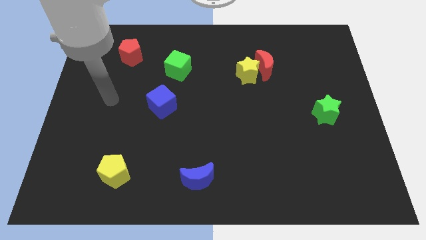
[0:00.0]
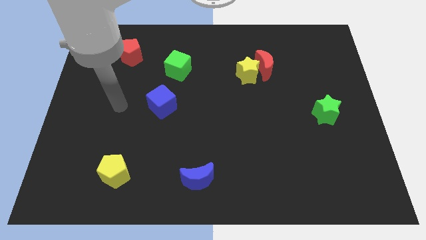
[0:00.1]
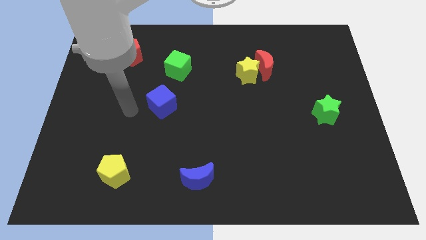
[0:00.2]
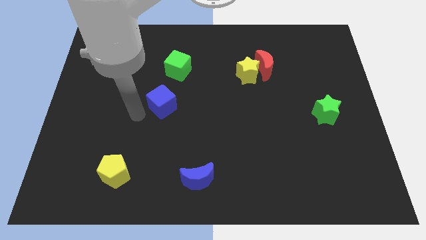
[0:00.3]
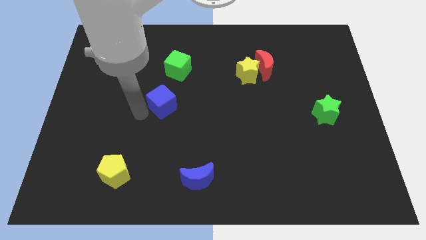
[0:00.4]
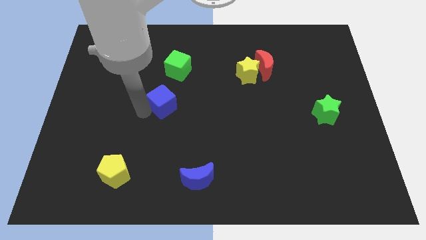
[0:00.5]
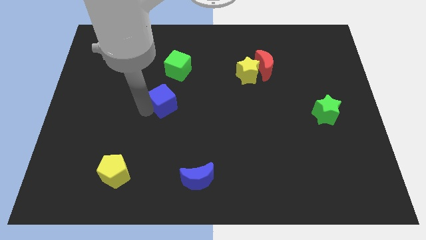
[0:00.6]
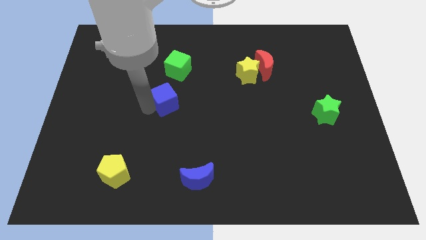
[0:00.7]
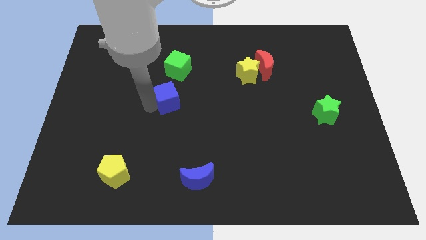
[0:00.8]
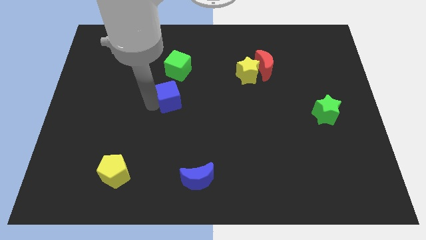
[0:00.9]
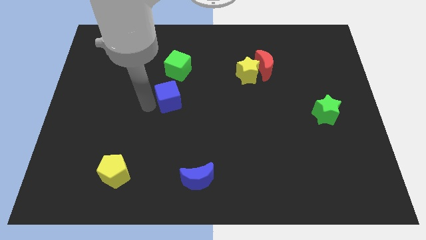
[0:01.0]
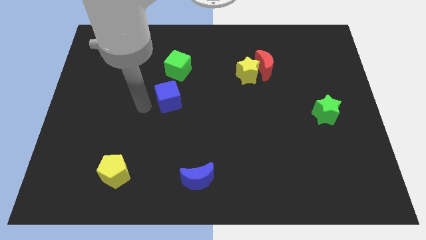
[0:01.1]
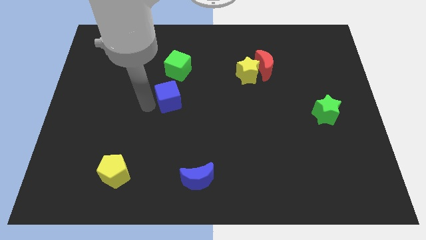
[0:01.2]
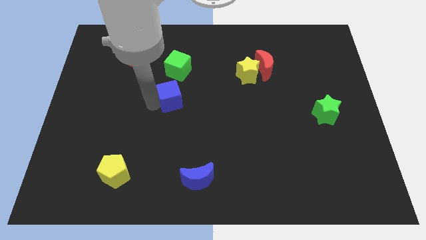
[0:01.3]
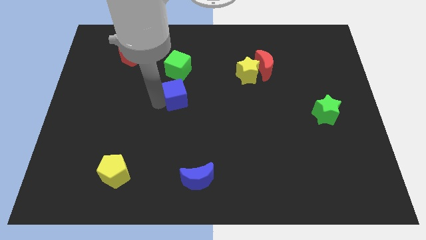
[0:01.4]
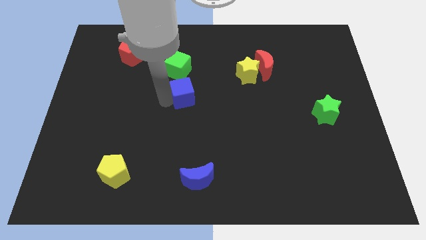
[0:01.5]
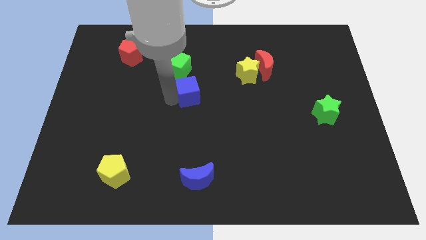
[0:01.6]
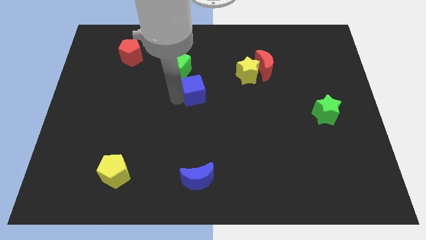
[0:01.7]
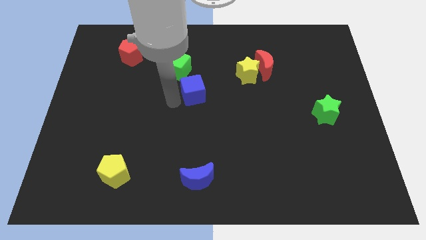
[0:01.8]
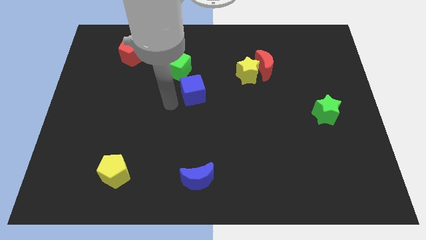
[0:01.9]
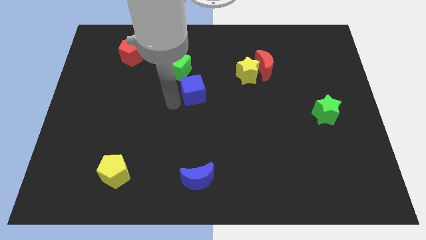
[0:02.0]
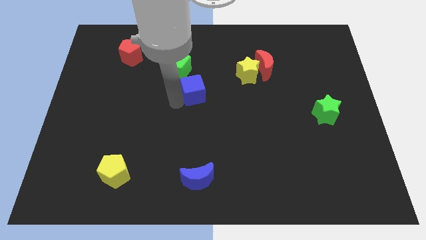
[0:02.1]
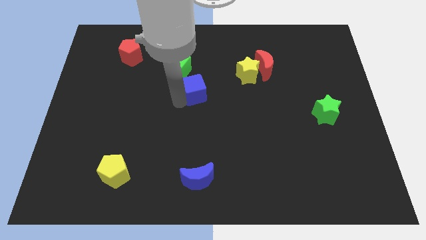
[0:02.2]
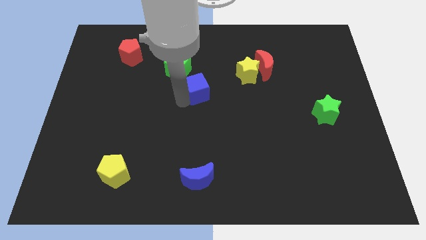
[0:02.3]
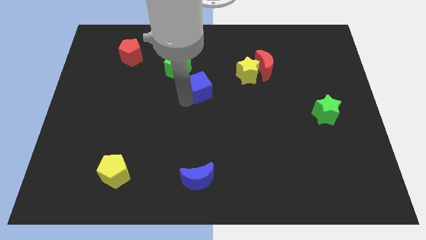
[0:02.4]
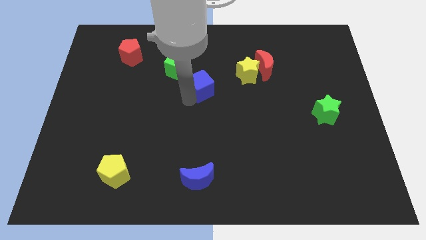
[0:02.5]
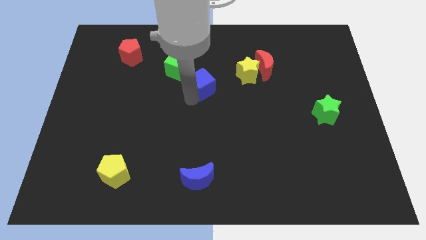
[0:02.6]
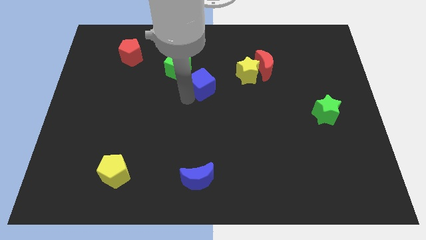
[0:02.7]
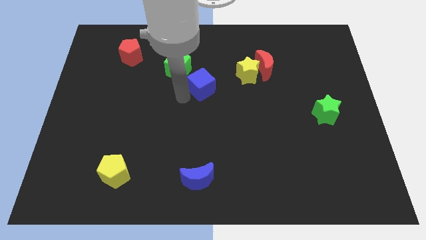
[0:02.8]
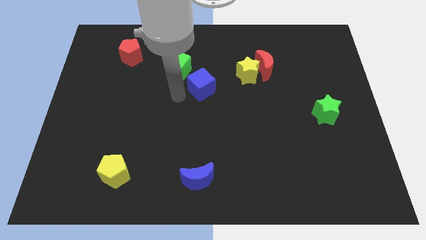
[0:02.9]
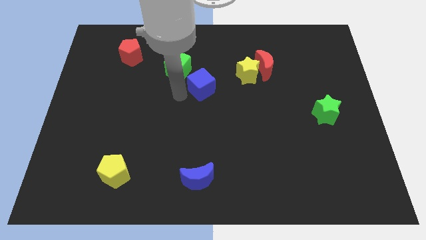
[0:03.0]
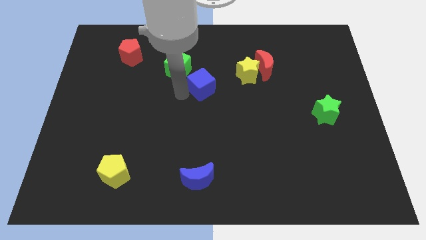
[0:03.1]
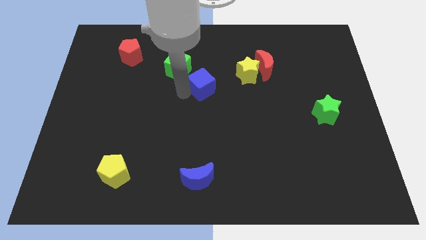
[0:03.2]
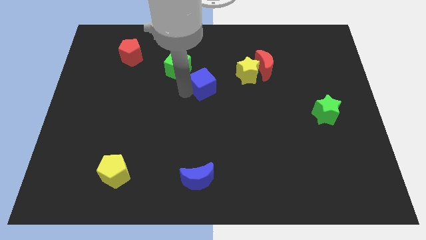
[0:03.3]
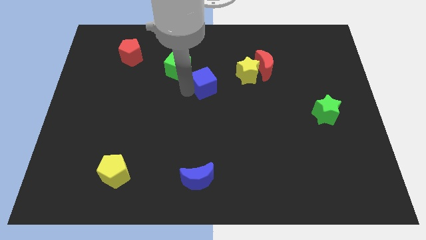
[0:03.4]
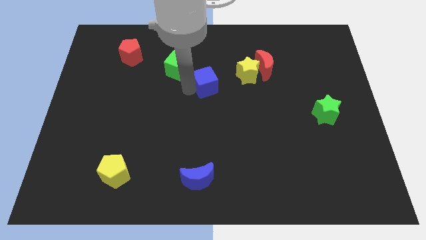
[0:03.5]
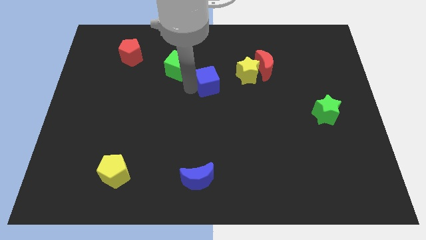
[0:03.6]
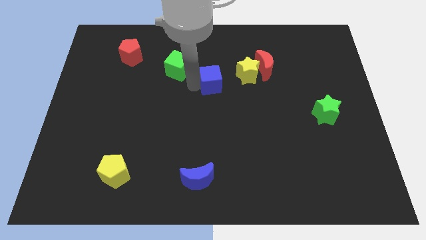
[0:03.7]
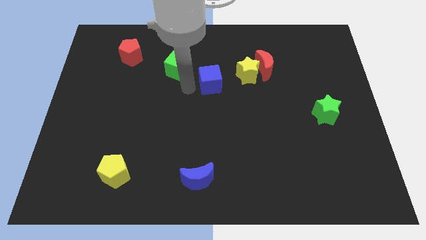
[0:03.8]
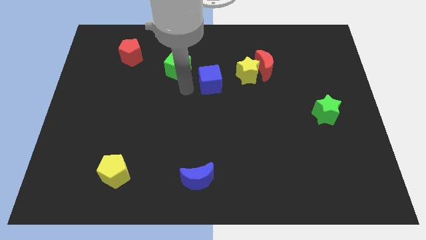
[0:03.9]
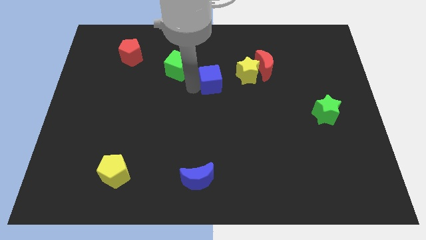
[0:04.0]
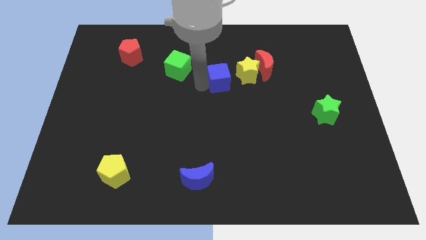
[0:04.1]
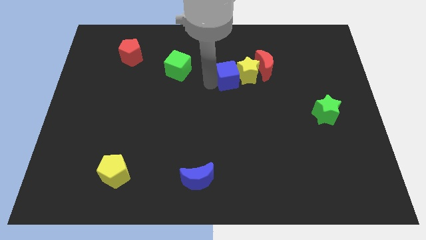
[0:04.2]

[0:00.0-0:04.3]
put the blue cube to the yellow star

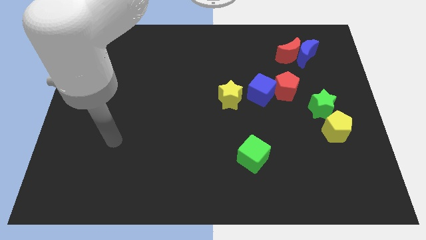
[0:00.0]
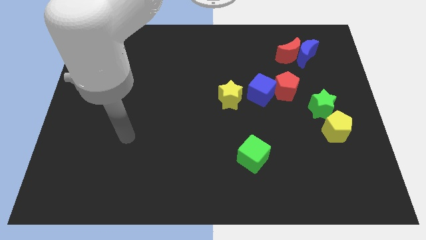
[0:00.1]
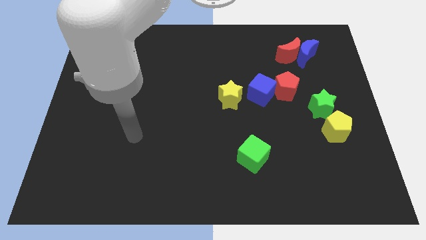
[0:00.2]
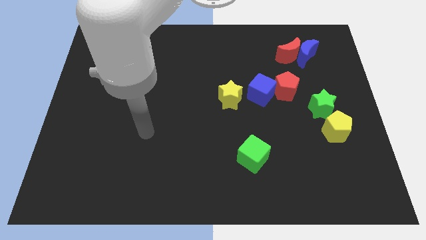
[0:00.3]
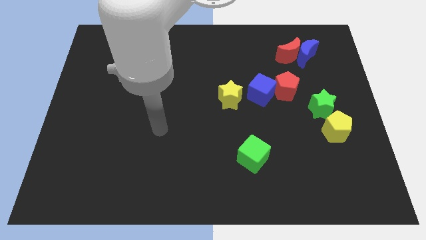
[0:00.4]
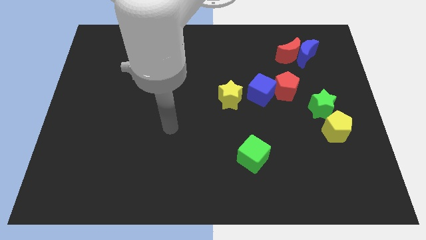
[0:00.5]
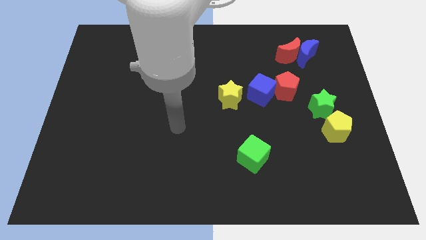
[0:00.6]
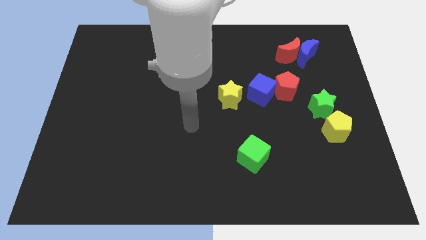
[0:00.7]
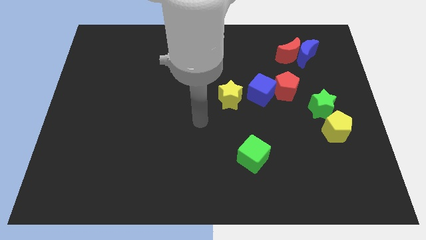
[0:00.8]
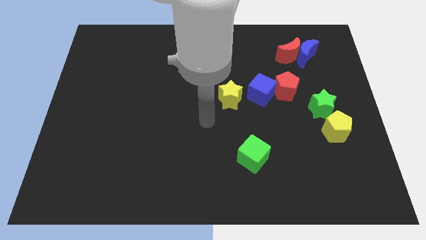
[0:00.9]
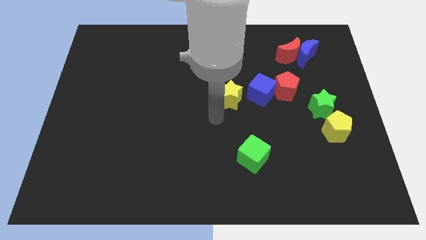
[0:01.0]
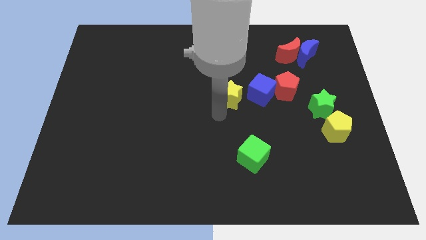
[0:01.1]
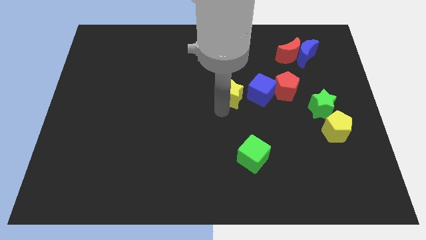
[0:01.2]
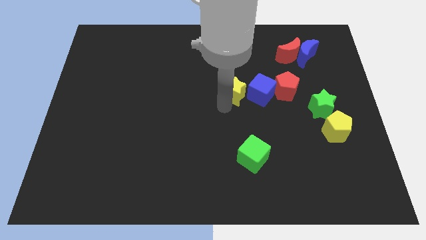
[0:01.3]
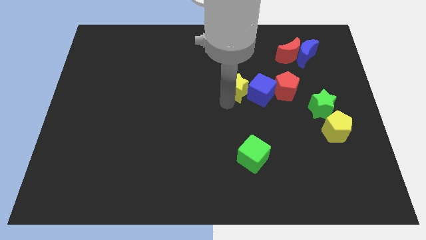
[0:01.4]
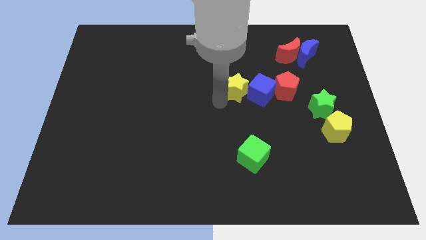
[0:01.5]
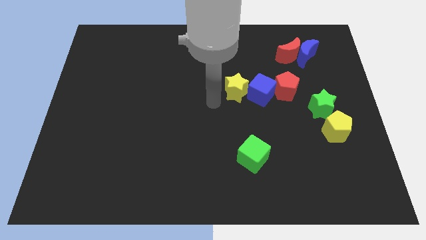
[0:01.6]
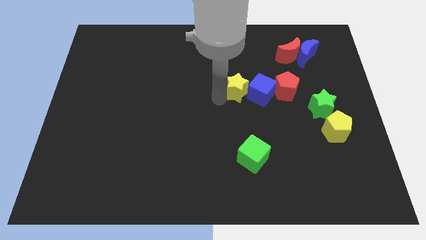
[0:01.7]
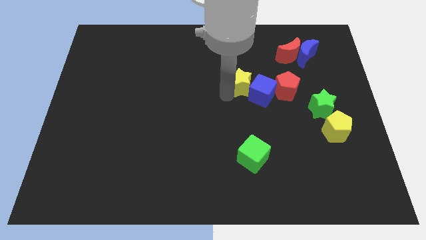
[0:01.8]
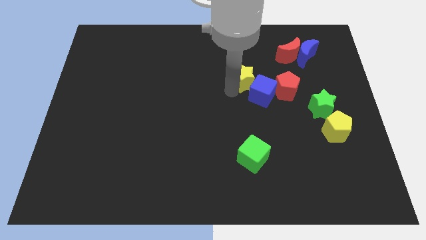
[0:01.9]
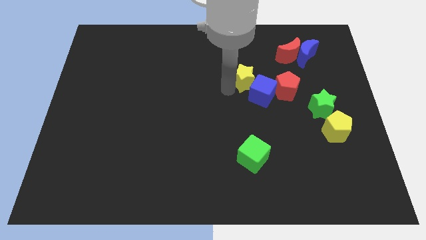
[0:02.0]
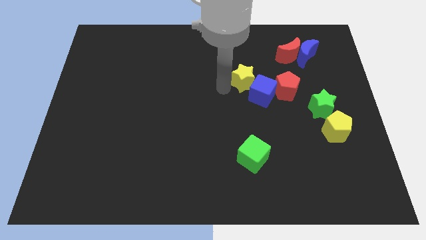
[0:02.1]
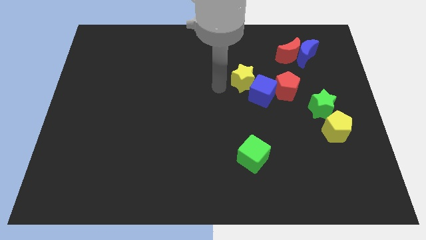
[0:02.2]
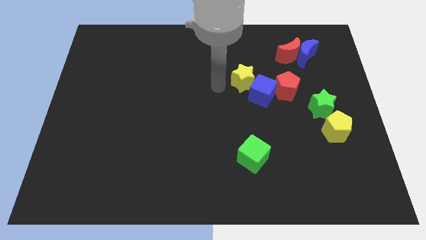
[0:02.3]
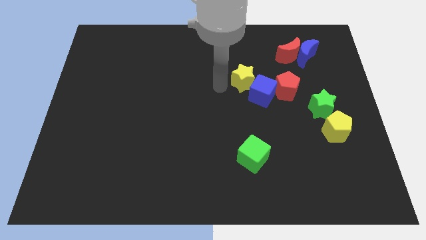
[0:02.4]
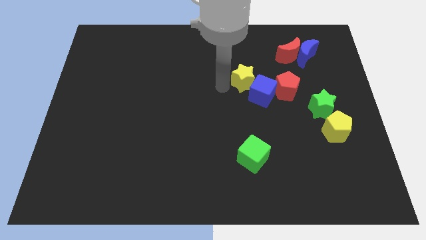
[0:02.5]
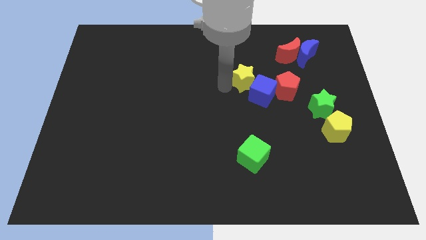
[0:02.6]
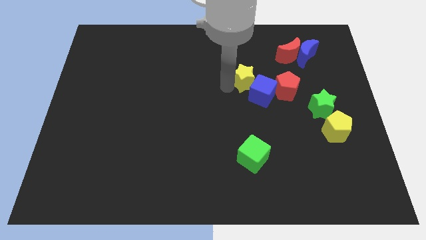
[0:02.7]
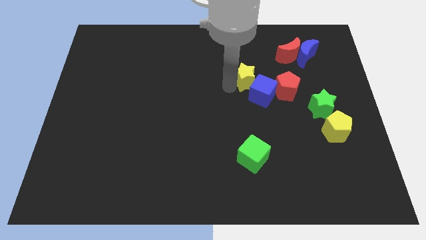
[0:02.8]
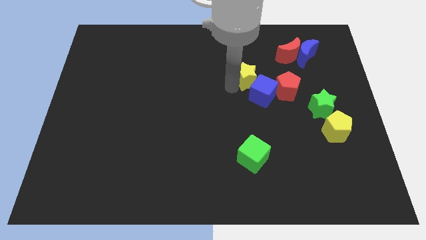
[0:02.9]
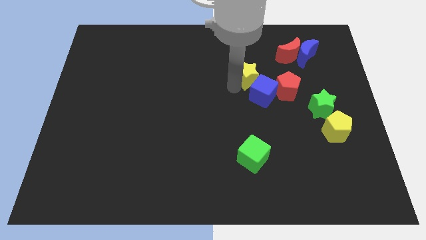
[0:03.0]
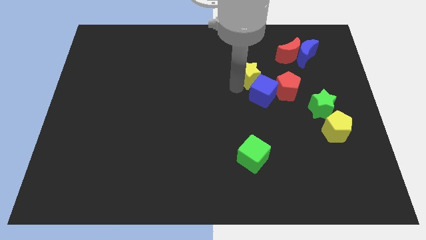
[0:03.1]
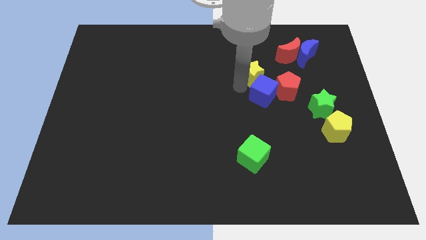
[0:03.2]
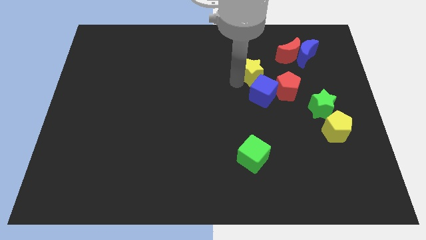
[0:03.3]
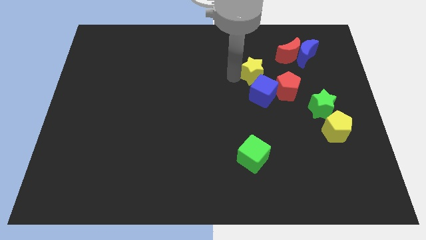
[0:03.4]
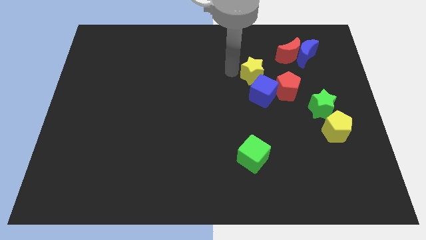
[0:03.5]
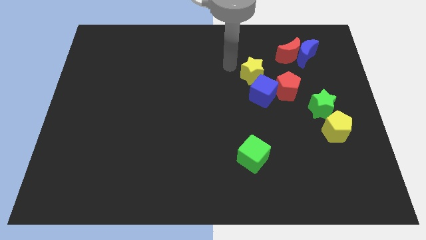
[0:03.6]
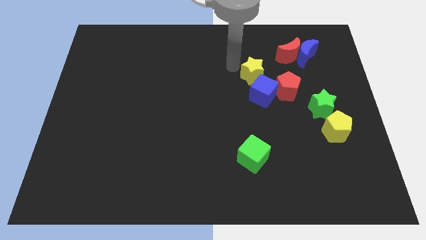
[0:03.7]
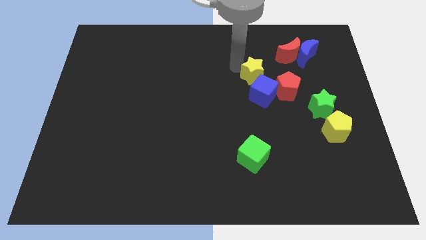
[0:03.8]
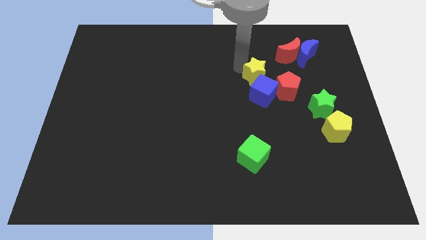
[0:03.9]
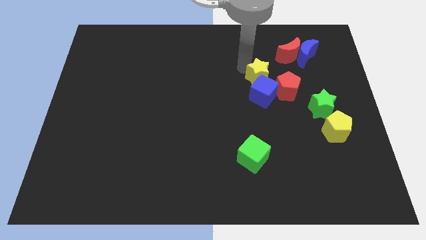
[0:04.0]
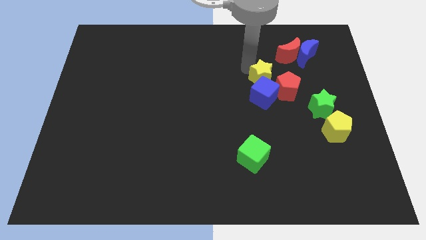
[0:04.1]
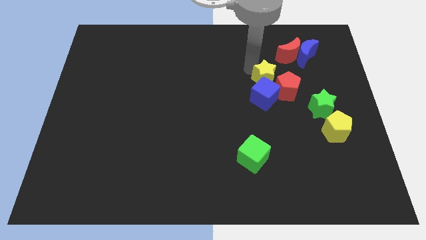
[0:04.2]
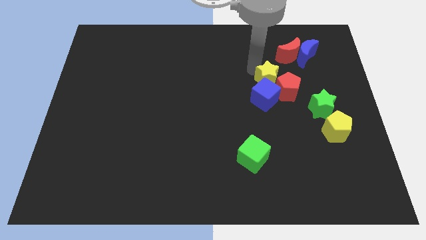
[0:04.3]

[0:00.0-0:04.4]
push the yellow star towards the red pentagon
